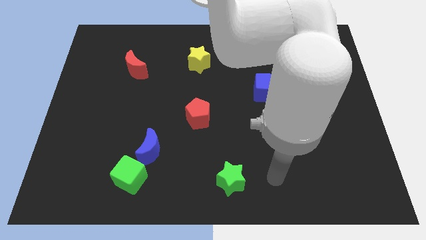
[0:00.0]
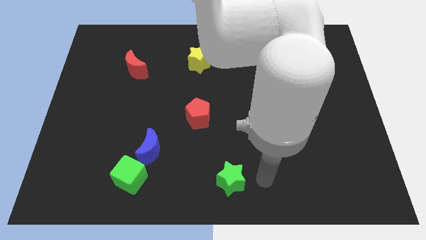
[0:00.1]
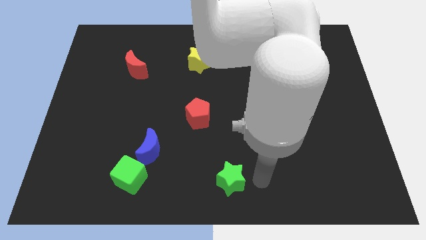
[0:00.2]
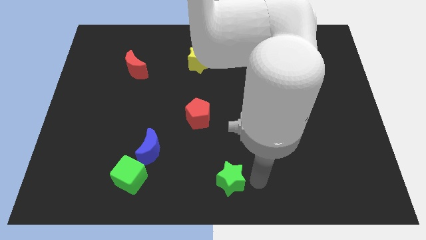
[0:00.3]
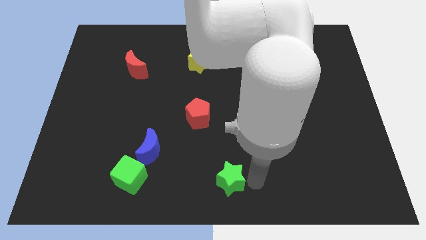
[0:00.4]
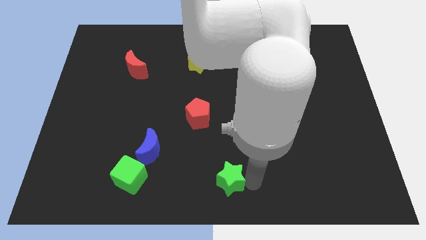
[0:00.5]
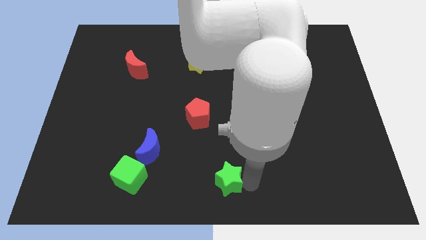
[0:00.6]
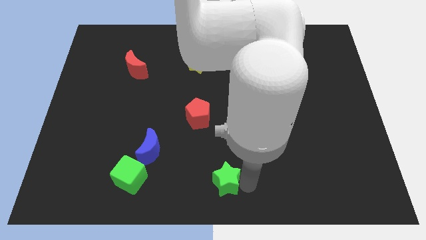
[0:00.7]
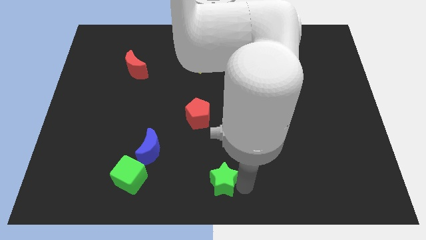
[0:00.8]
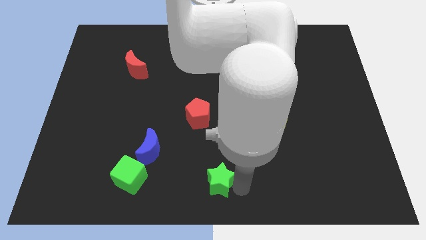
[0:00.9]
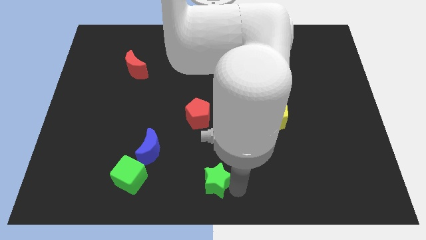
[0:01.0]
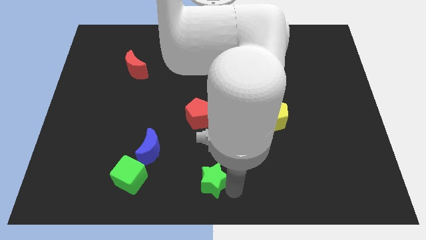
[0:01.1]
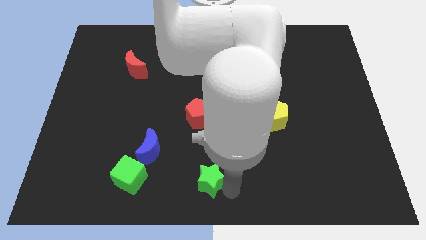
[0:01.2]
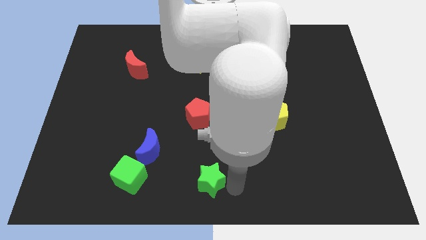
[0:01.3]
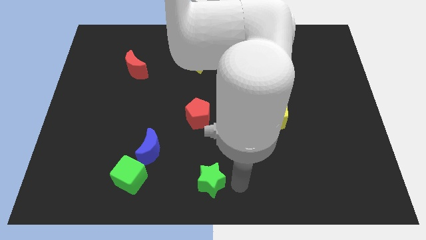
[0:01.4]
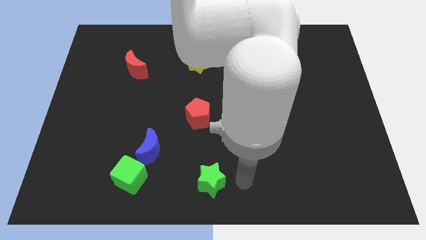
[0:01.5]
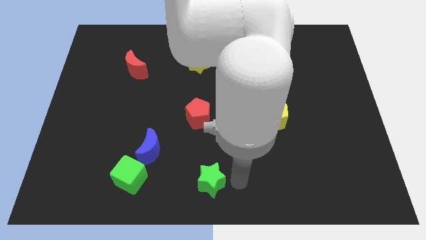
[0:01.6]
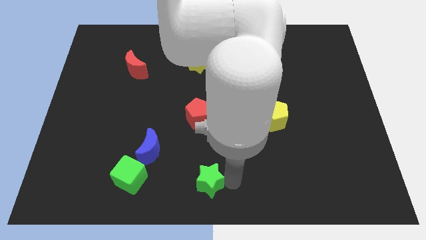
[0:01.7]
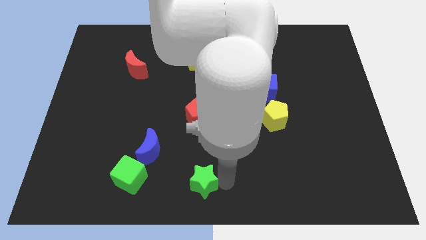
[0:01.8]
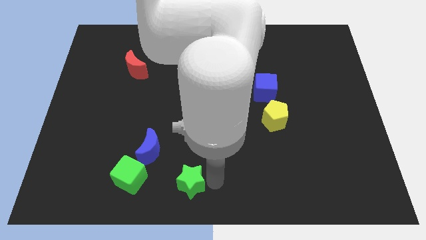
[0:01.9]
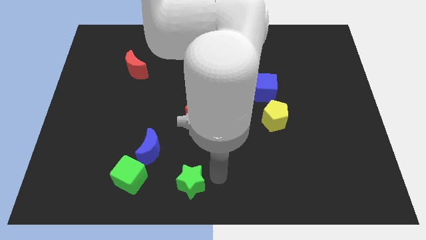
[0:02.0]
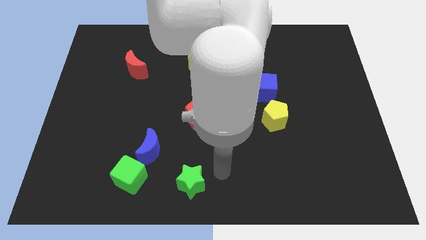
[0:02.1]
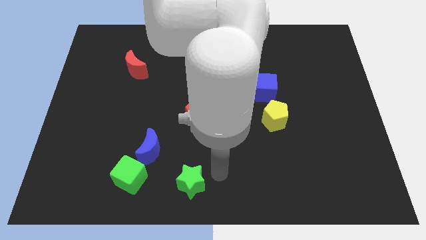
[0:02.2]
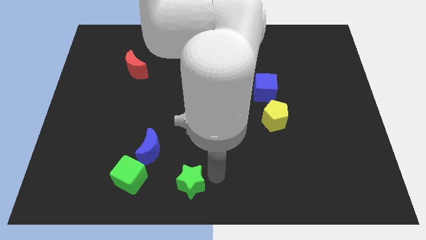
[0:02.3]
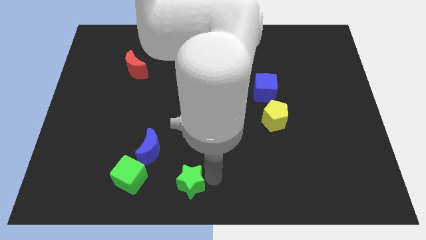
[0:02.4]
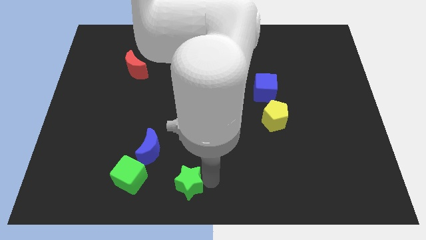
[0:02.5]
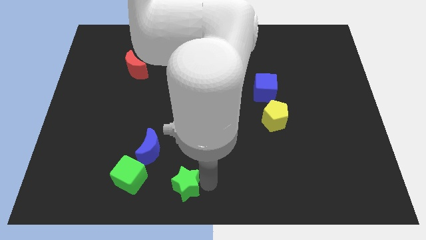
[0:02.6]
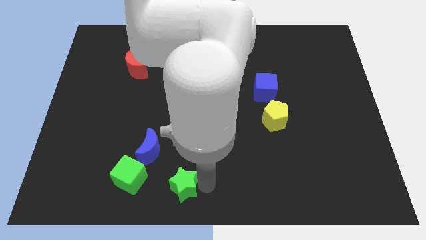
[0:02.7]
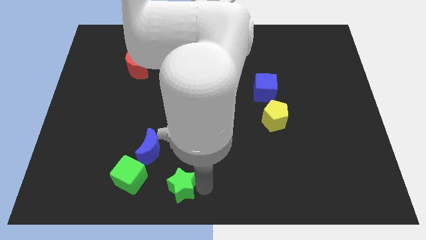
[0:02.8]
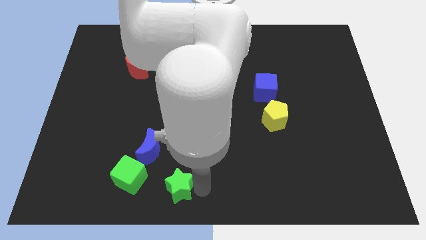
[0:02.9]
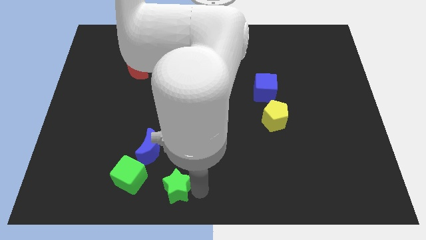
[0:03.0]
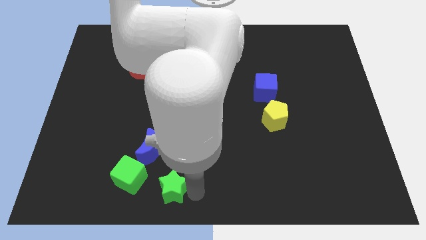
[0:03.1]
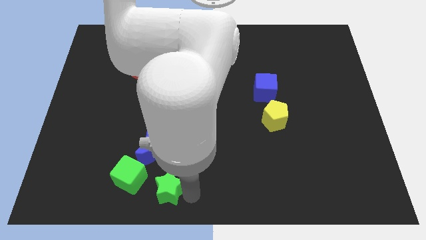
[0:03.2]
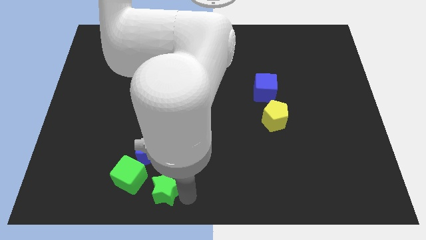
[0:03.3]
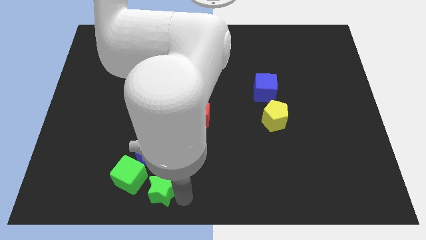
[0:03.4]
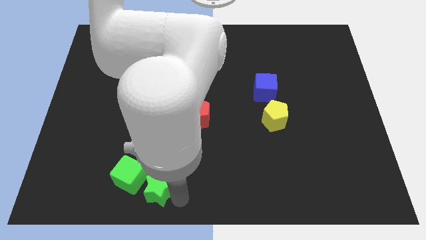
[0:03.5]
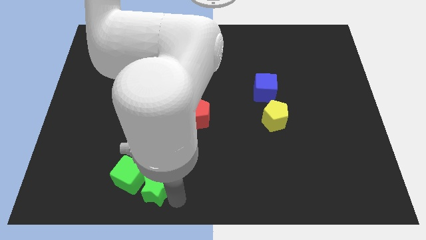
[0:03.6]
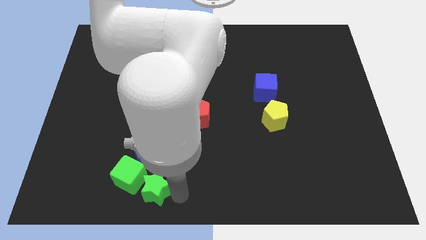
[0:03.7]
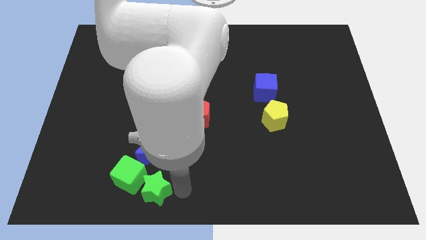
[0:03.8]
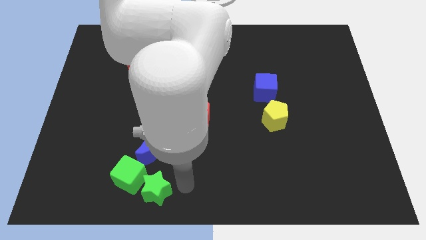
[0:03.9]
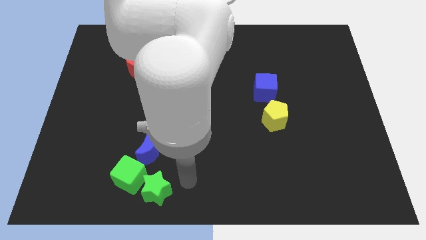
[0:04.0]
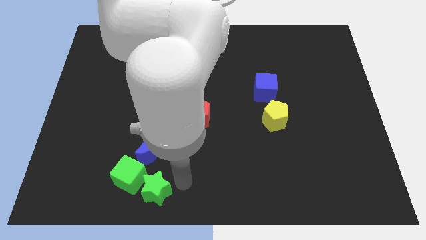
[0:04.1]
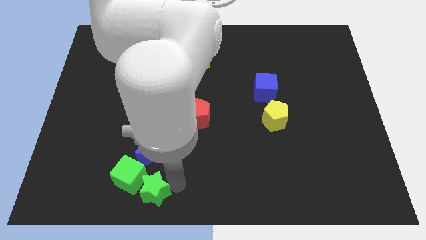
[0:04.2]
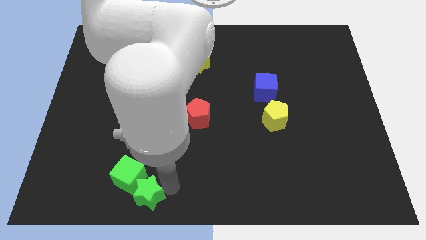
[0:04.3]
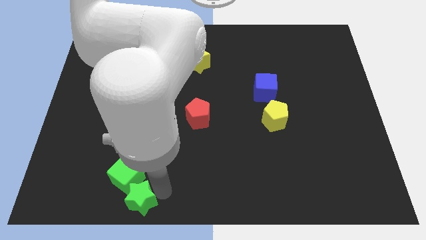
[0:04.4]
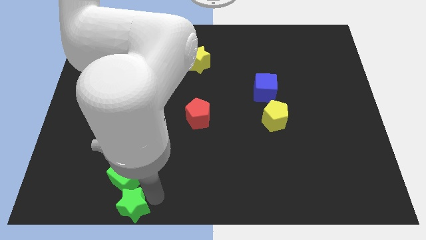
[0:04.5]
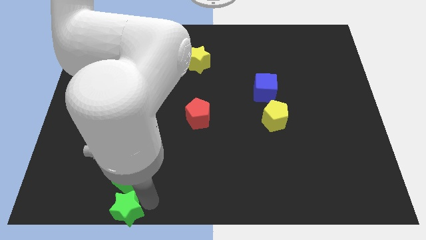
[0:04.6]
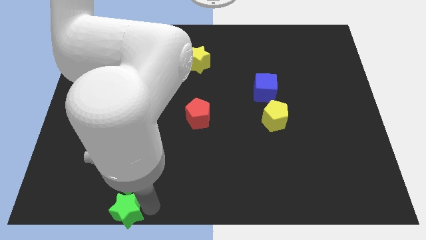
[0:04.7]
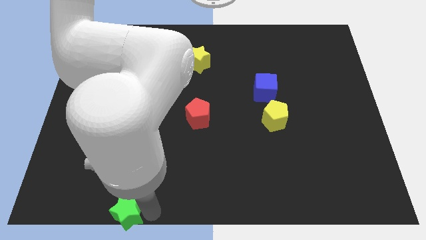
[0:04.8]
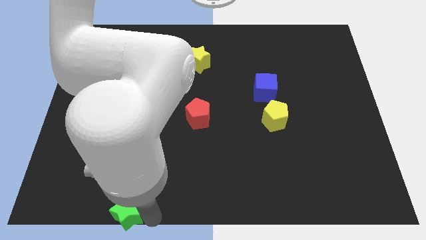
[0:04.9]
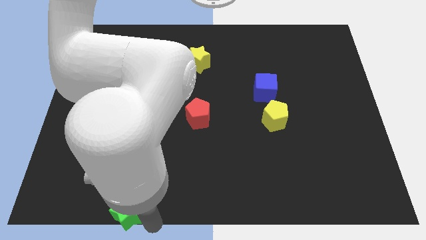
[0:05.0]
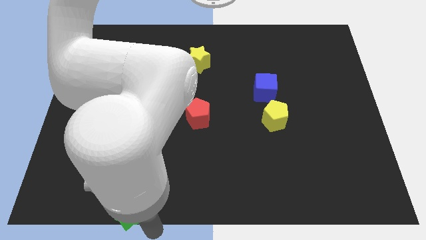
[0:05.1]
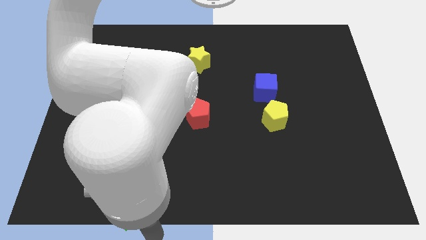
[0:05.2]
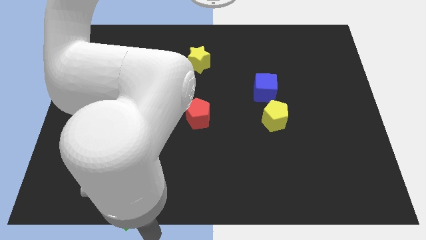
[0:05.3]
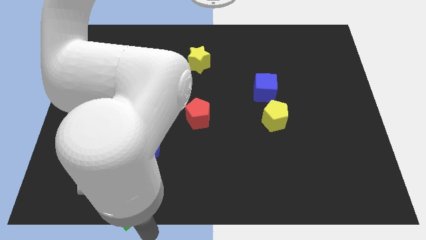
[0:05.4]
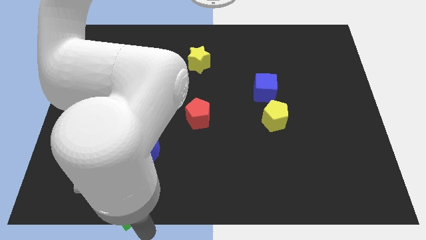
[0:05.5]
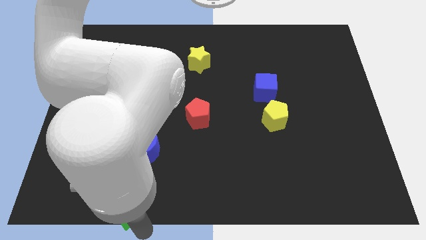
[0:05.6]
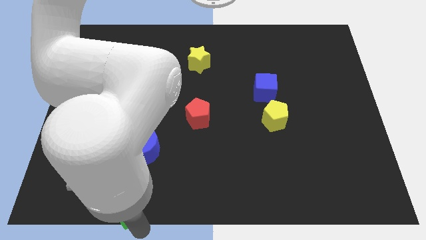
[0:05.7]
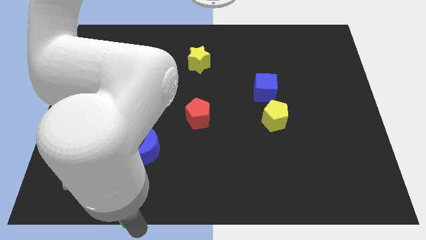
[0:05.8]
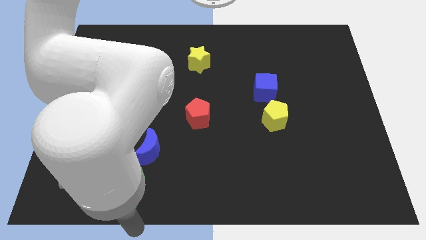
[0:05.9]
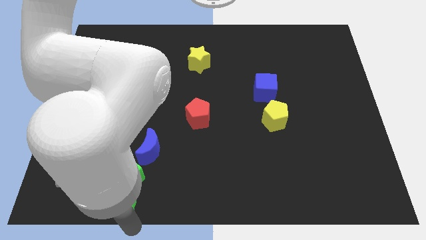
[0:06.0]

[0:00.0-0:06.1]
slide the green star to the left

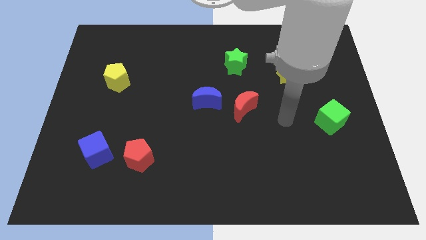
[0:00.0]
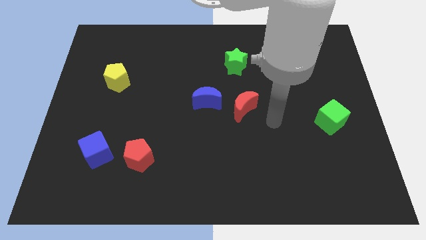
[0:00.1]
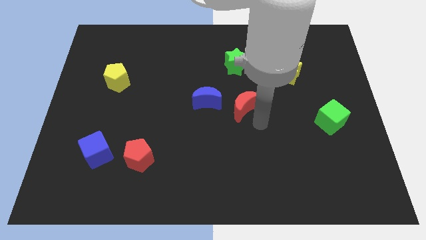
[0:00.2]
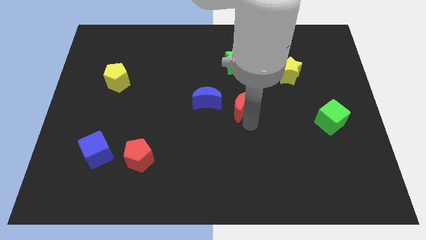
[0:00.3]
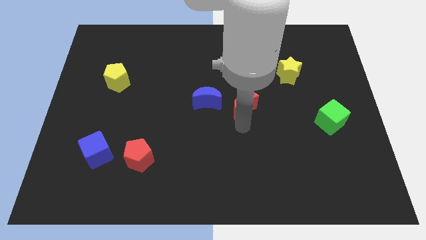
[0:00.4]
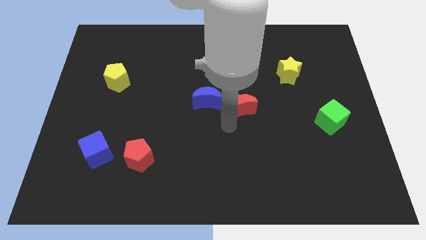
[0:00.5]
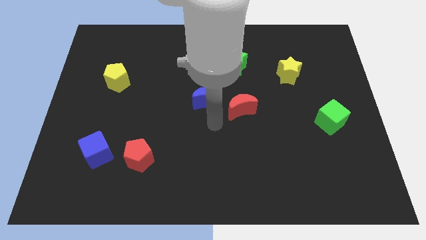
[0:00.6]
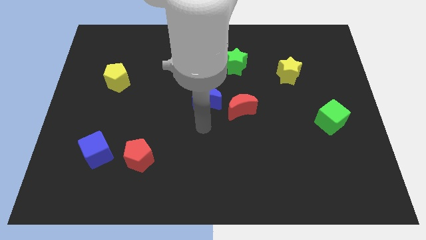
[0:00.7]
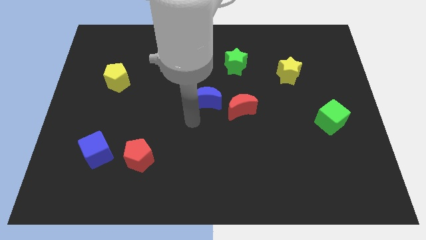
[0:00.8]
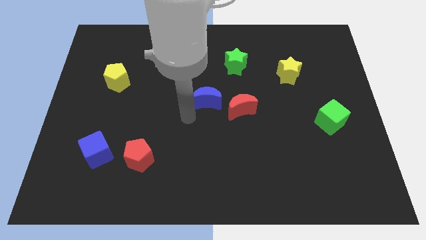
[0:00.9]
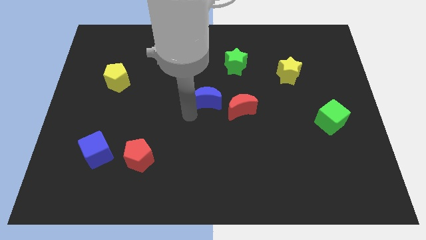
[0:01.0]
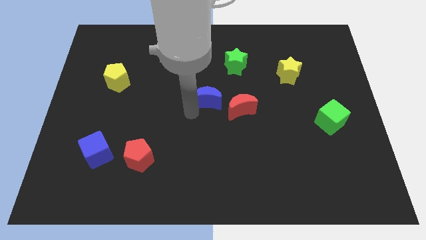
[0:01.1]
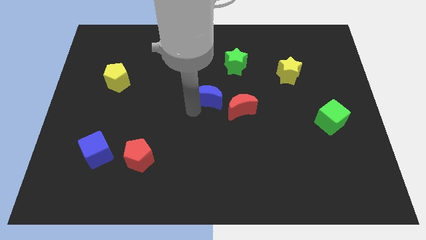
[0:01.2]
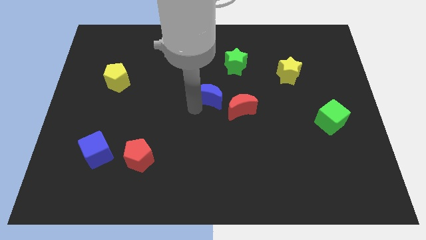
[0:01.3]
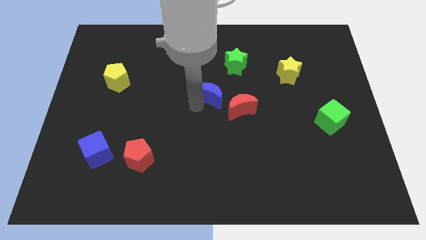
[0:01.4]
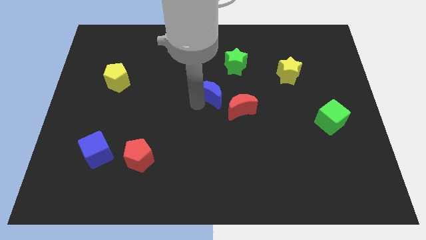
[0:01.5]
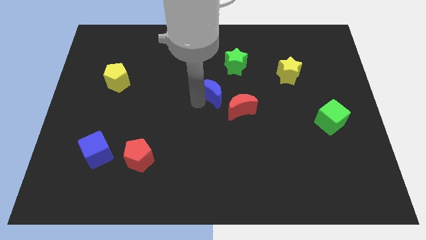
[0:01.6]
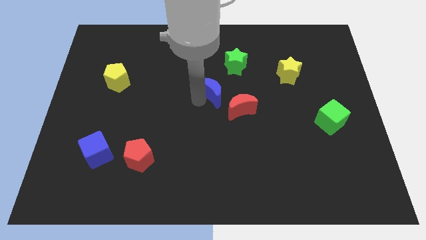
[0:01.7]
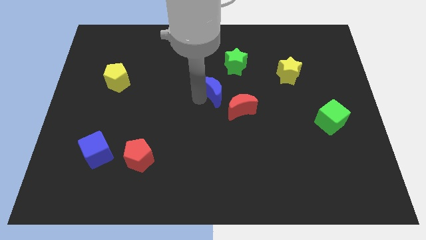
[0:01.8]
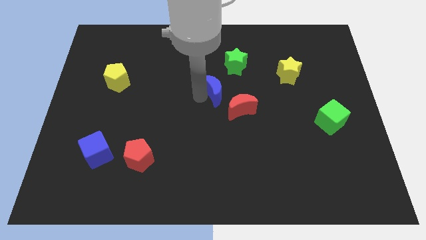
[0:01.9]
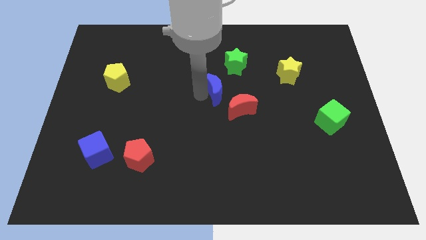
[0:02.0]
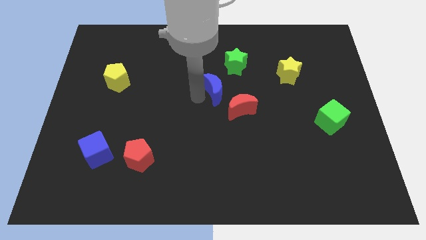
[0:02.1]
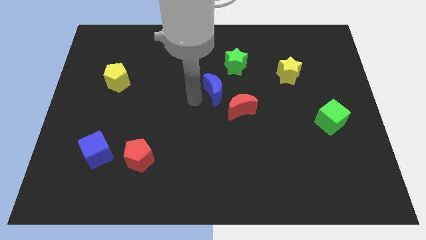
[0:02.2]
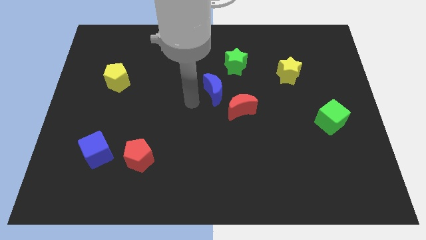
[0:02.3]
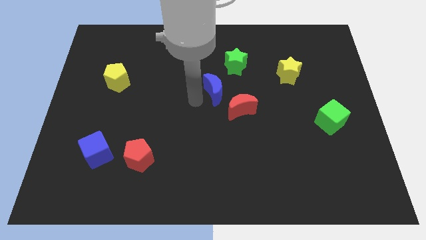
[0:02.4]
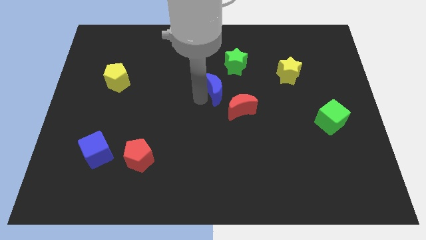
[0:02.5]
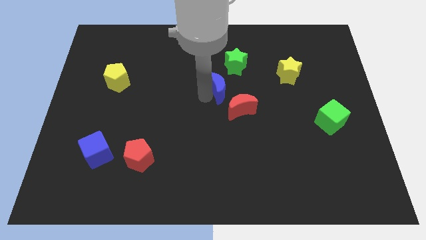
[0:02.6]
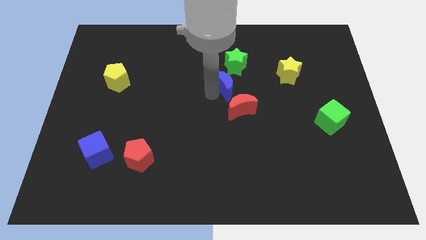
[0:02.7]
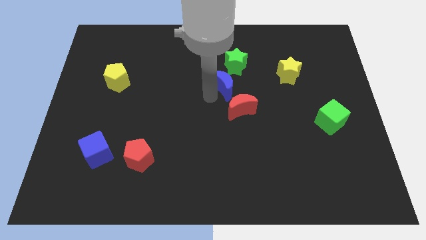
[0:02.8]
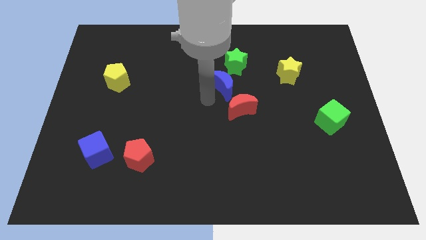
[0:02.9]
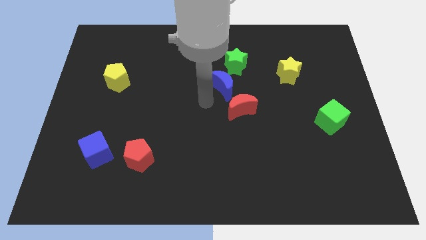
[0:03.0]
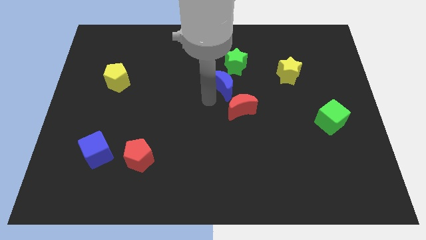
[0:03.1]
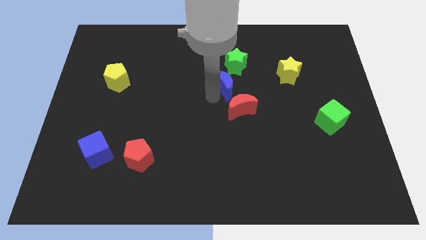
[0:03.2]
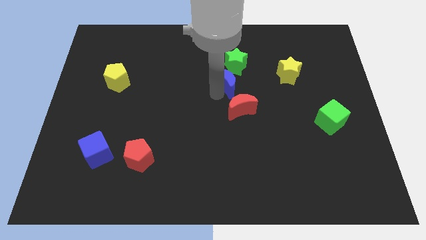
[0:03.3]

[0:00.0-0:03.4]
slightly slide the blue moon diagonally up and to the right
